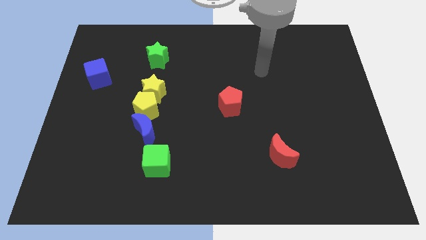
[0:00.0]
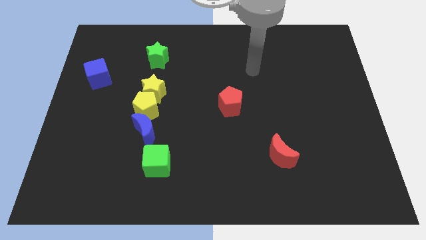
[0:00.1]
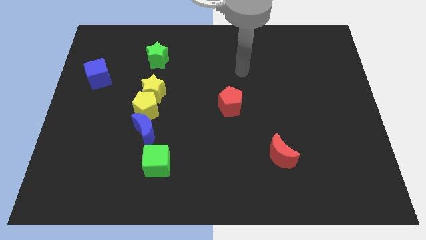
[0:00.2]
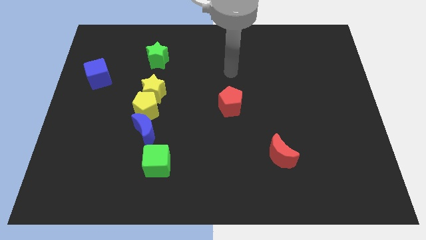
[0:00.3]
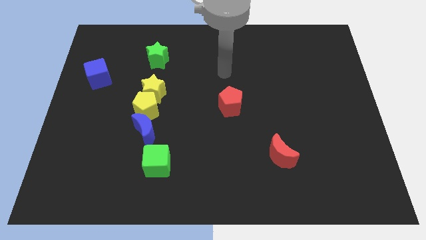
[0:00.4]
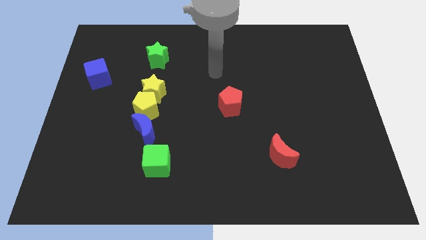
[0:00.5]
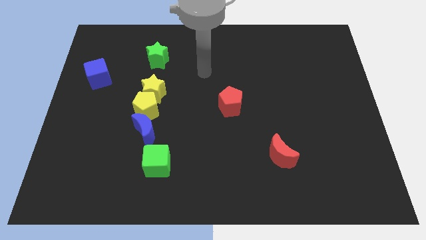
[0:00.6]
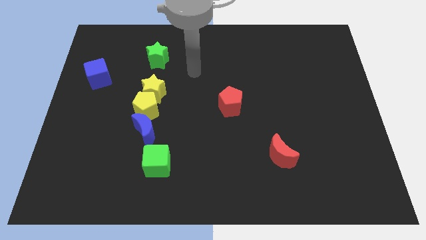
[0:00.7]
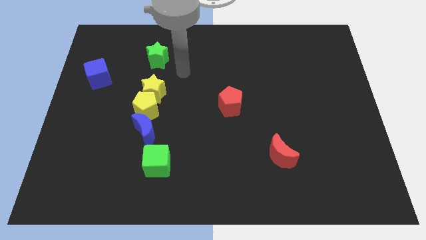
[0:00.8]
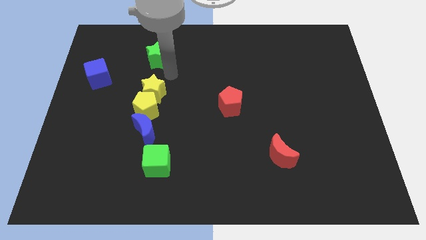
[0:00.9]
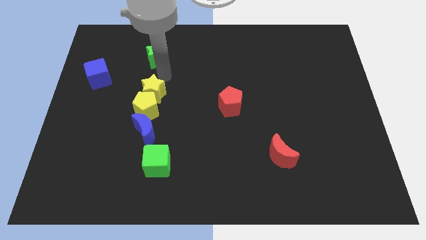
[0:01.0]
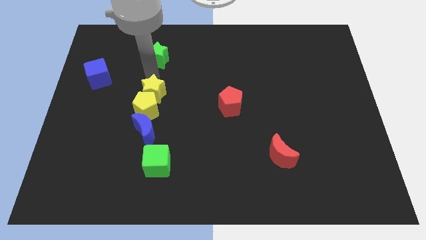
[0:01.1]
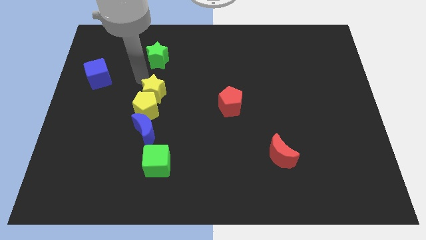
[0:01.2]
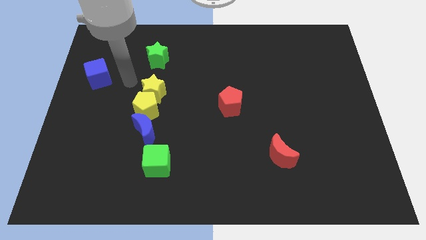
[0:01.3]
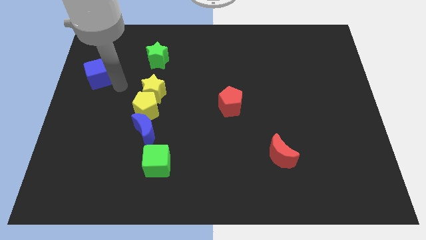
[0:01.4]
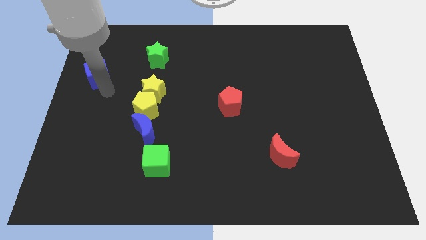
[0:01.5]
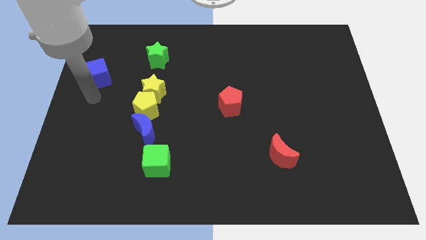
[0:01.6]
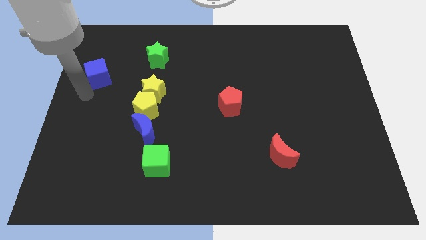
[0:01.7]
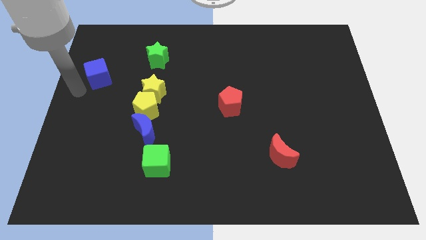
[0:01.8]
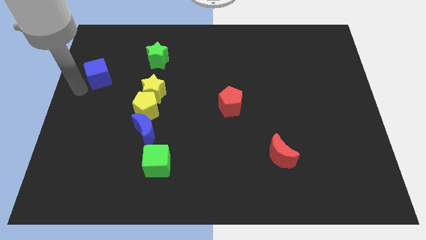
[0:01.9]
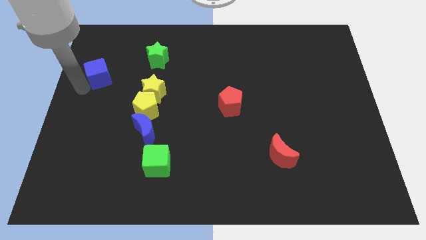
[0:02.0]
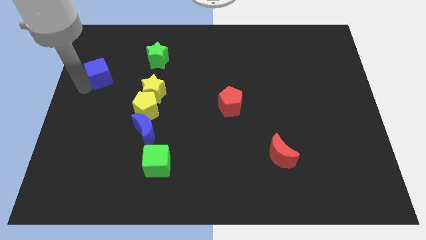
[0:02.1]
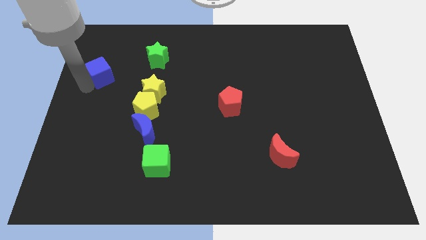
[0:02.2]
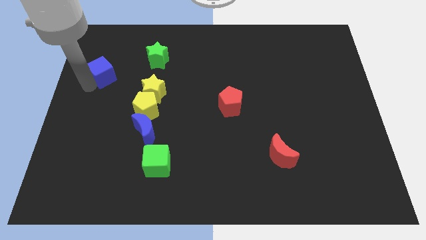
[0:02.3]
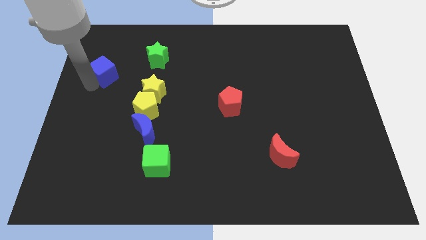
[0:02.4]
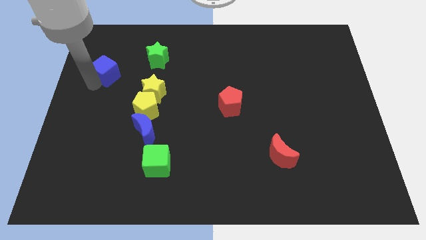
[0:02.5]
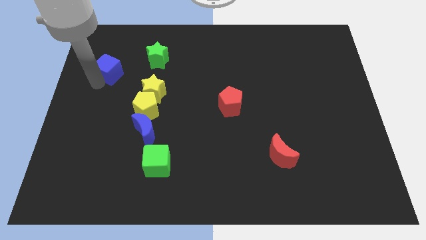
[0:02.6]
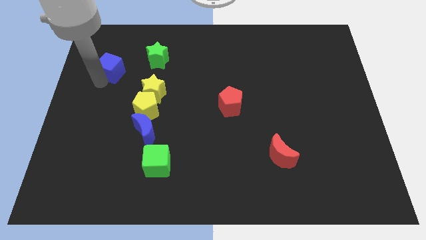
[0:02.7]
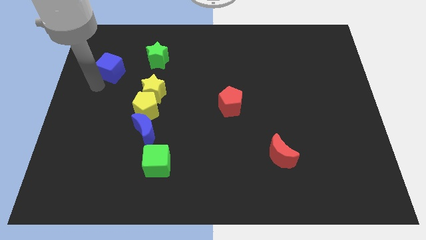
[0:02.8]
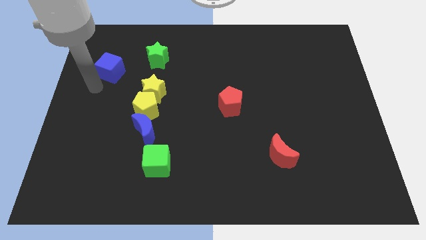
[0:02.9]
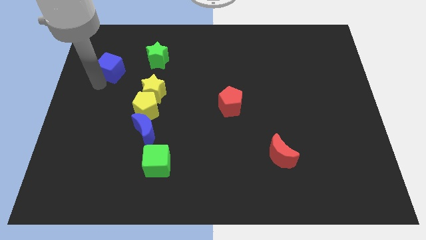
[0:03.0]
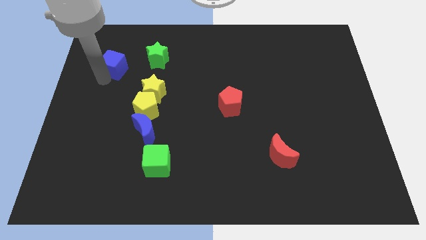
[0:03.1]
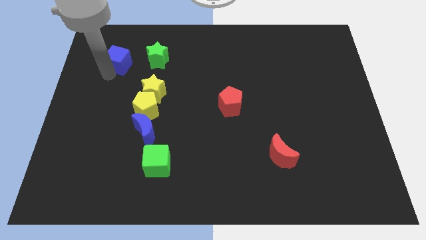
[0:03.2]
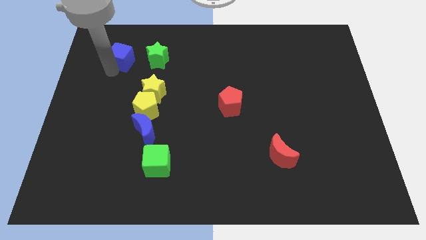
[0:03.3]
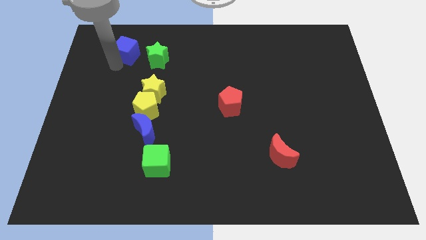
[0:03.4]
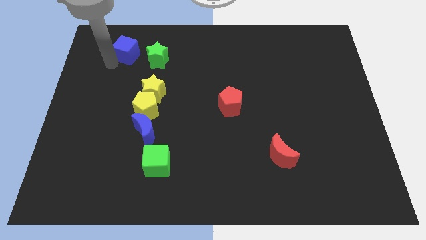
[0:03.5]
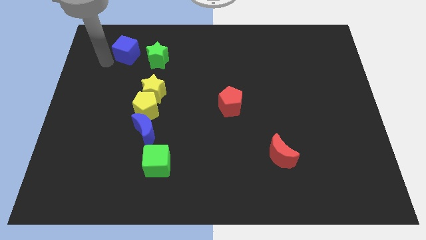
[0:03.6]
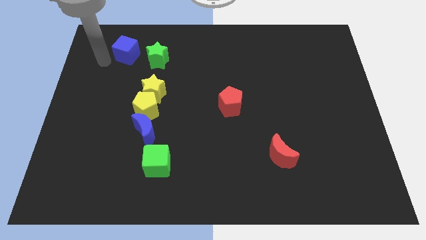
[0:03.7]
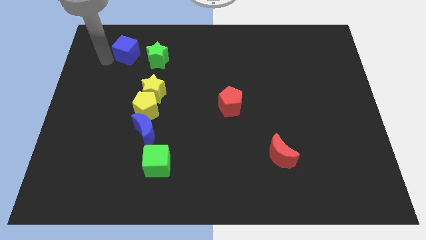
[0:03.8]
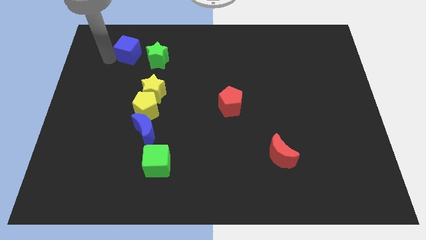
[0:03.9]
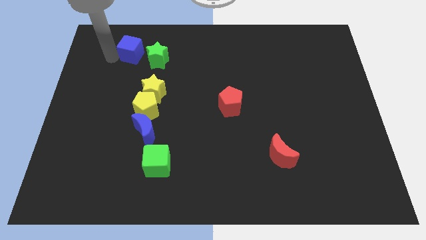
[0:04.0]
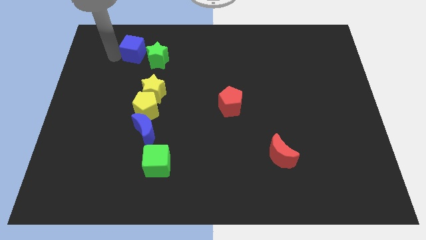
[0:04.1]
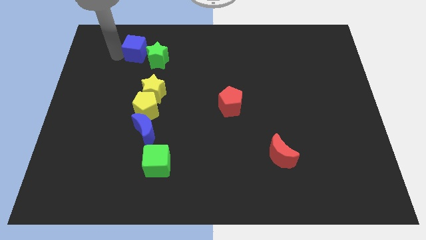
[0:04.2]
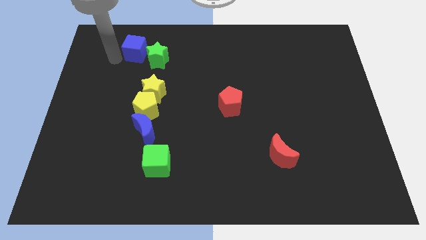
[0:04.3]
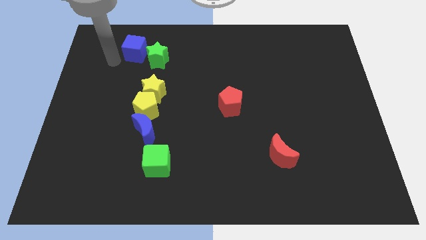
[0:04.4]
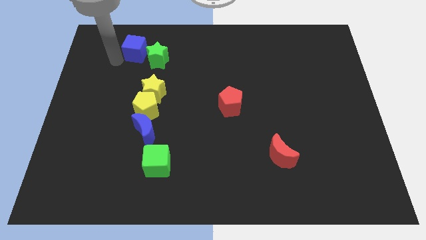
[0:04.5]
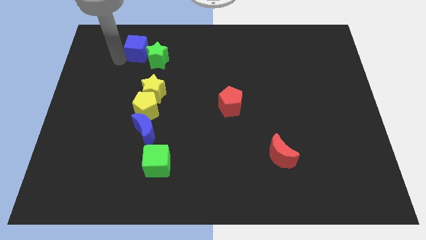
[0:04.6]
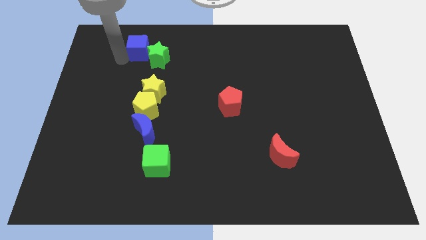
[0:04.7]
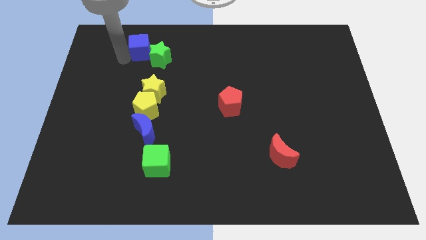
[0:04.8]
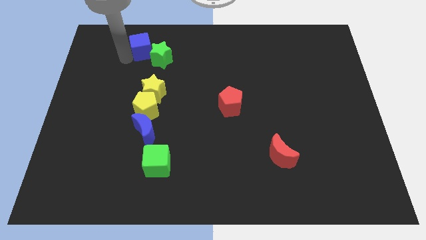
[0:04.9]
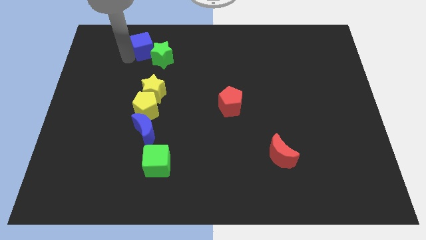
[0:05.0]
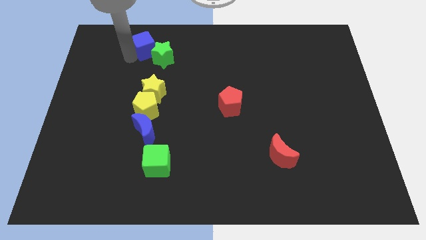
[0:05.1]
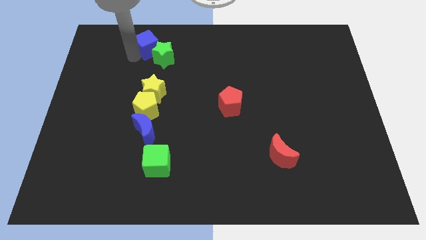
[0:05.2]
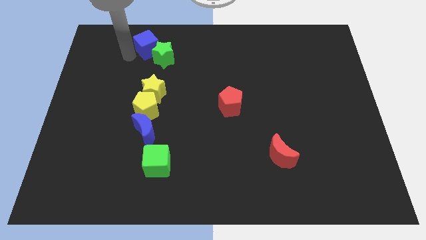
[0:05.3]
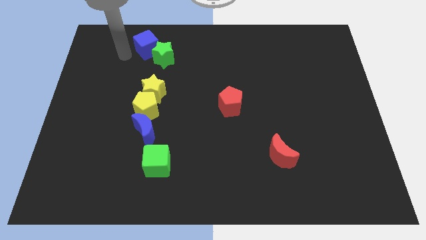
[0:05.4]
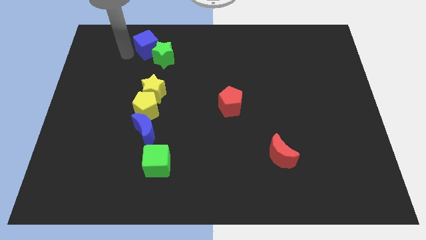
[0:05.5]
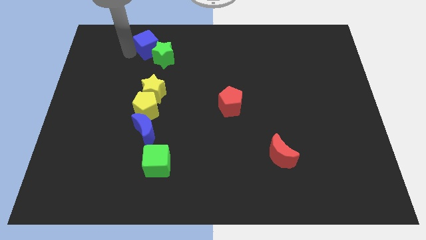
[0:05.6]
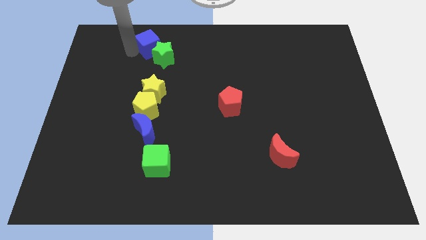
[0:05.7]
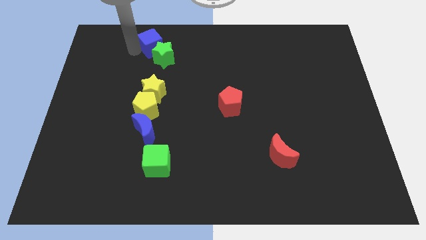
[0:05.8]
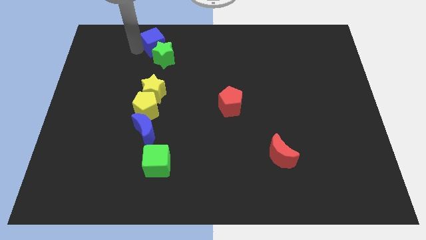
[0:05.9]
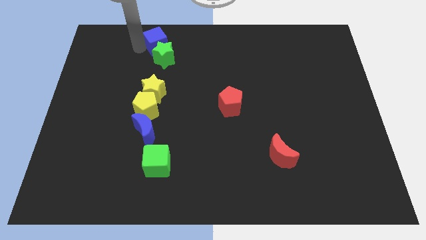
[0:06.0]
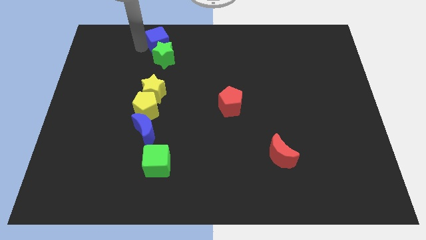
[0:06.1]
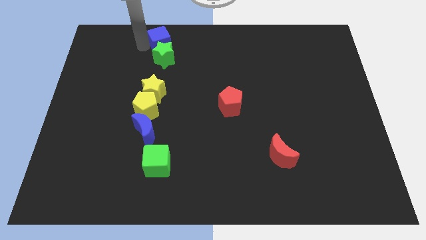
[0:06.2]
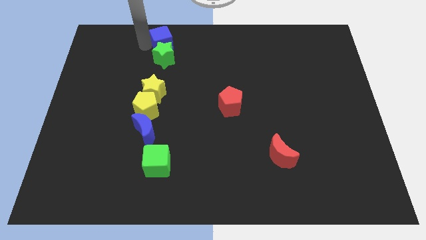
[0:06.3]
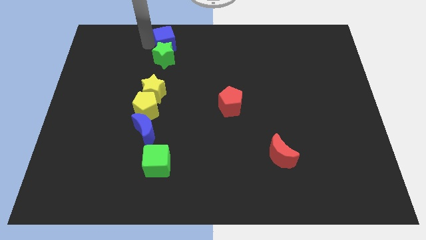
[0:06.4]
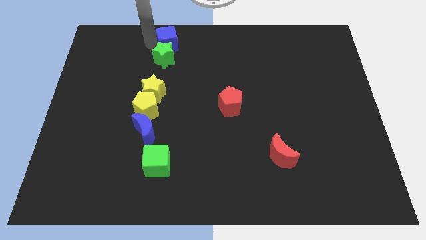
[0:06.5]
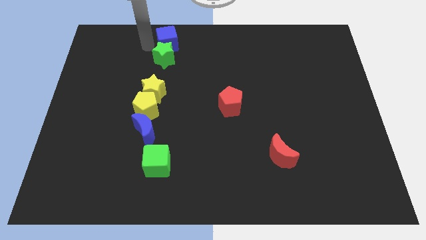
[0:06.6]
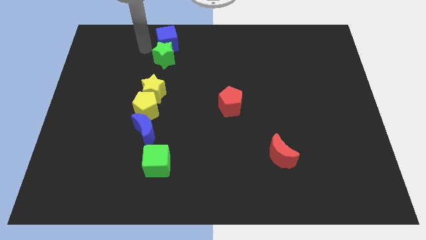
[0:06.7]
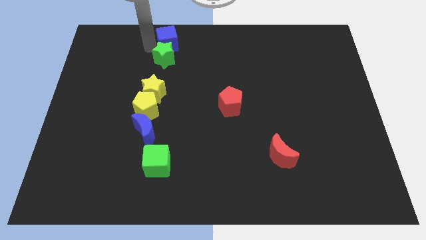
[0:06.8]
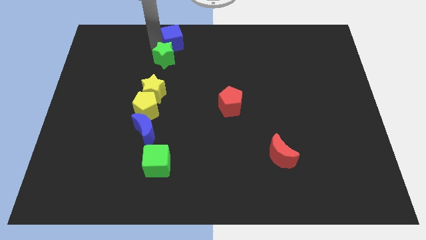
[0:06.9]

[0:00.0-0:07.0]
push the blue cube to the top side
